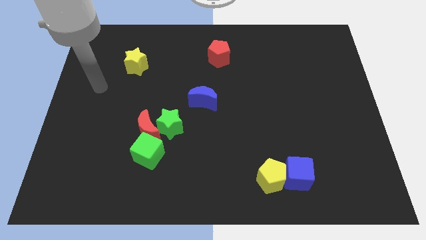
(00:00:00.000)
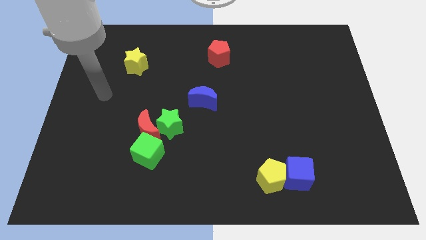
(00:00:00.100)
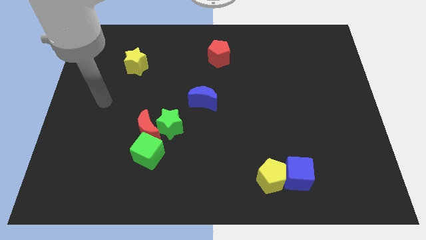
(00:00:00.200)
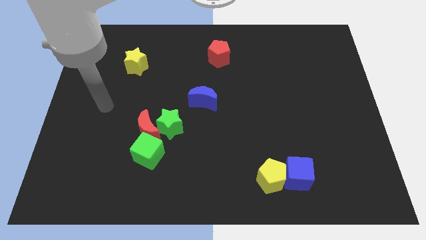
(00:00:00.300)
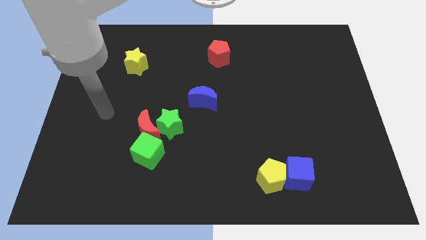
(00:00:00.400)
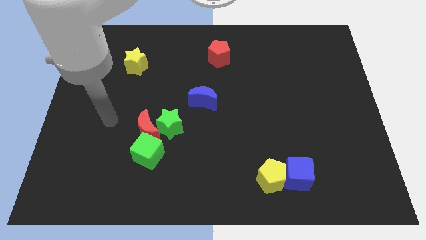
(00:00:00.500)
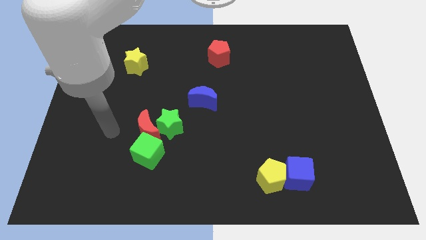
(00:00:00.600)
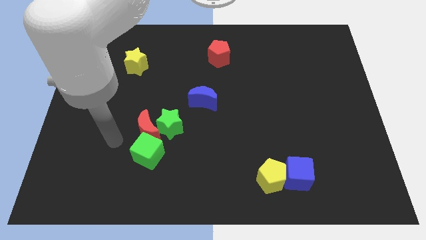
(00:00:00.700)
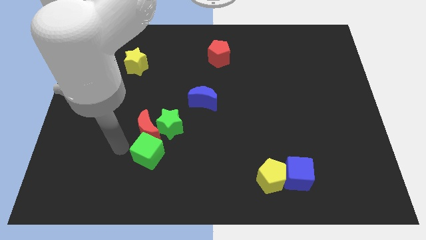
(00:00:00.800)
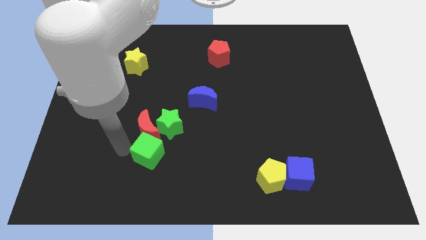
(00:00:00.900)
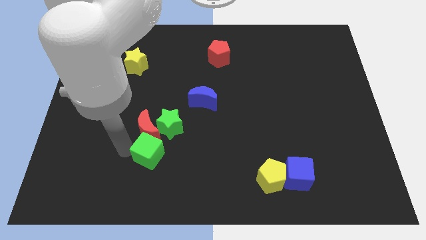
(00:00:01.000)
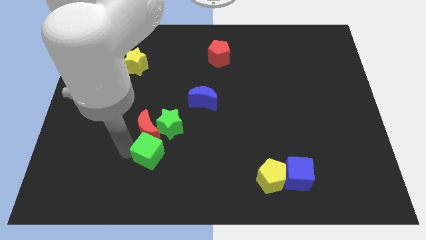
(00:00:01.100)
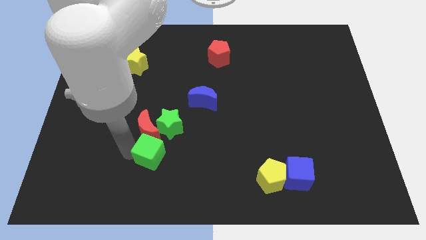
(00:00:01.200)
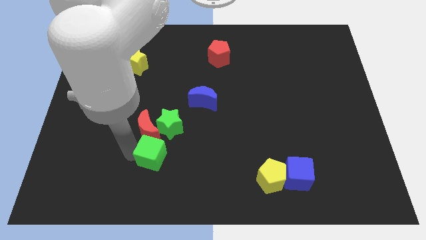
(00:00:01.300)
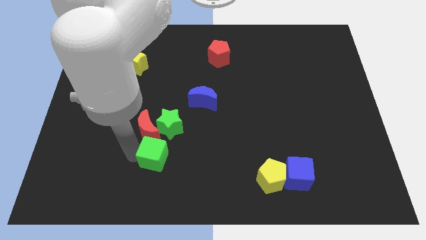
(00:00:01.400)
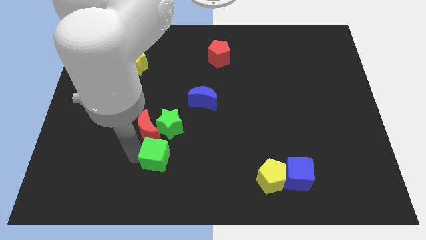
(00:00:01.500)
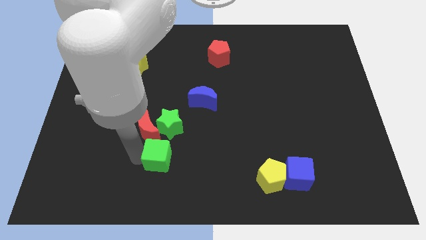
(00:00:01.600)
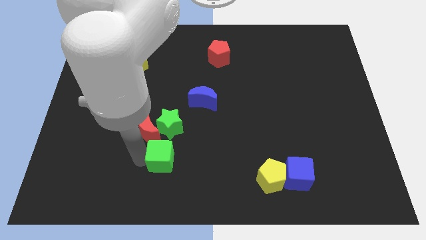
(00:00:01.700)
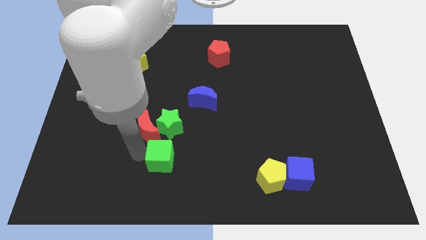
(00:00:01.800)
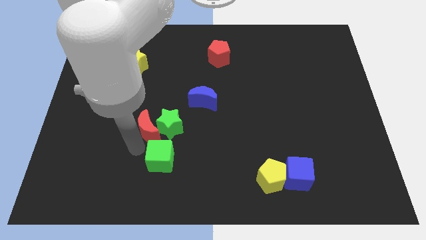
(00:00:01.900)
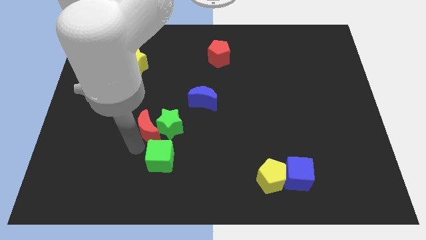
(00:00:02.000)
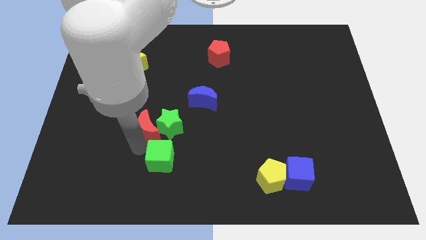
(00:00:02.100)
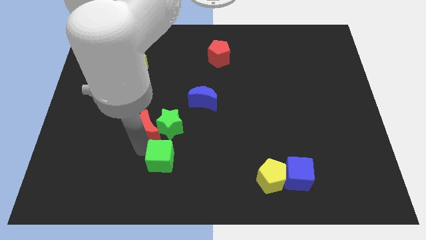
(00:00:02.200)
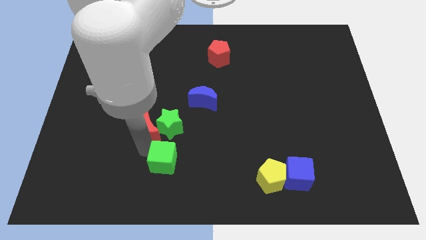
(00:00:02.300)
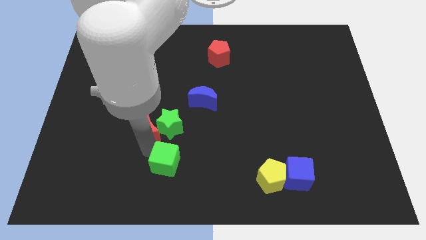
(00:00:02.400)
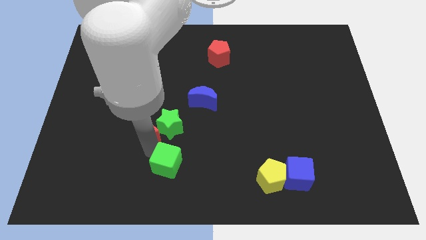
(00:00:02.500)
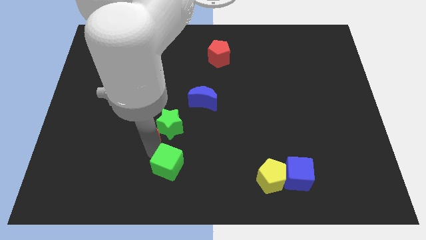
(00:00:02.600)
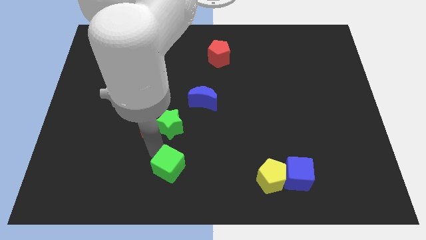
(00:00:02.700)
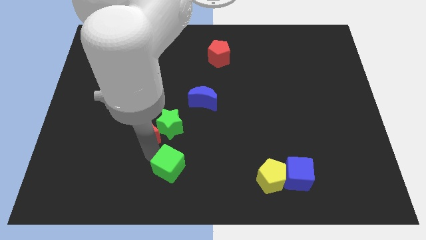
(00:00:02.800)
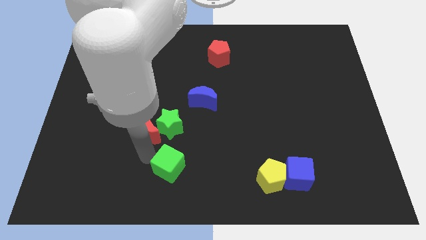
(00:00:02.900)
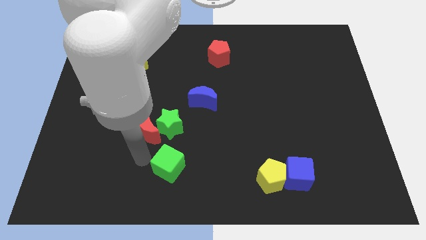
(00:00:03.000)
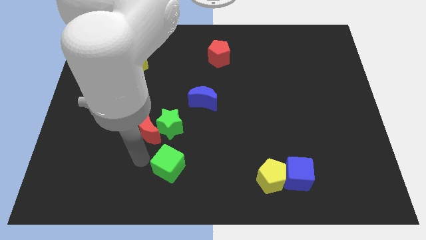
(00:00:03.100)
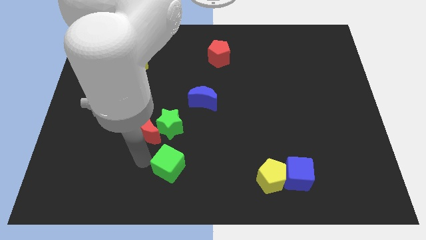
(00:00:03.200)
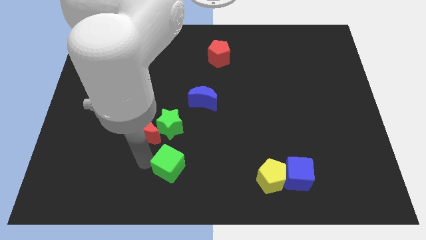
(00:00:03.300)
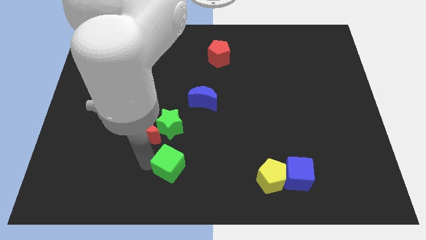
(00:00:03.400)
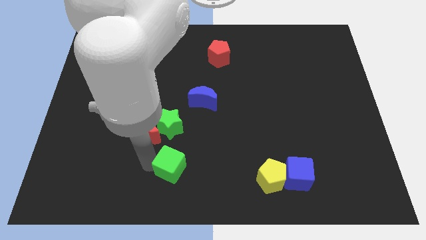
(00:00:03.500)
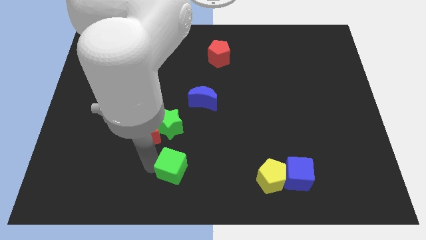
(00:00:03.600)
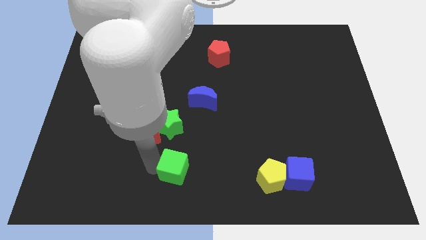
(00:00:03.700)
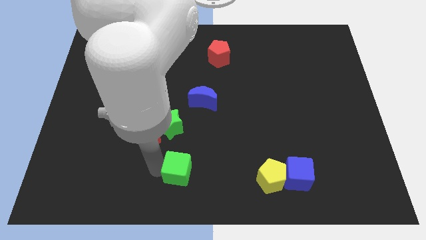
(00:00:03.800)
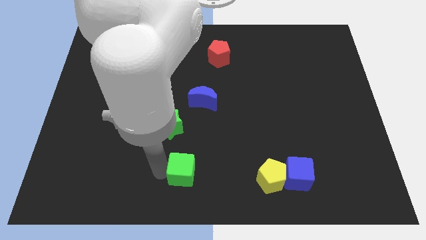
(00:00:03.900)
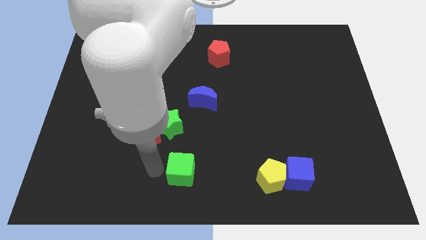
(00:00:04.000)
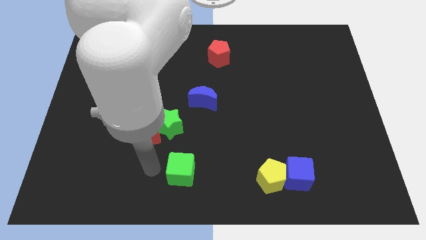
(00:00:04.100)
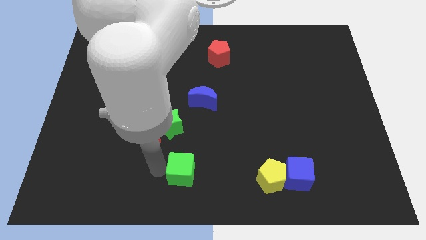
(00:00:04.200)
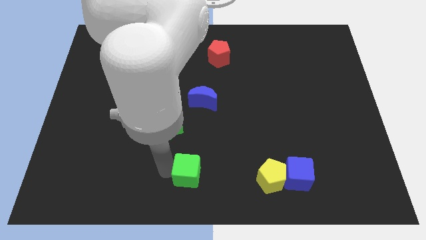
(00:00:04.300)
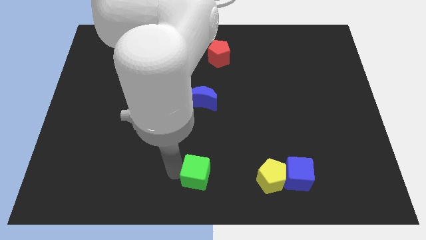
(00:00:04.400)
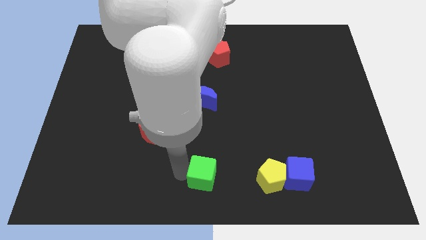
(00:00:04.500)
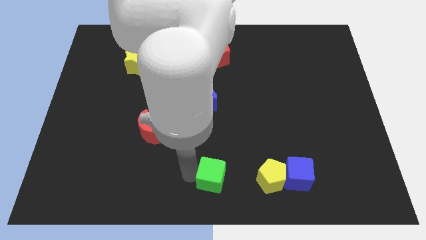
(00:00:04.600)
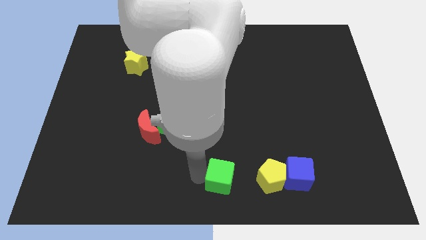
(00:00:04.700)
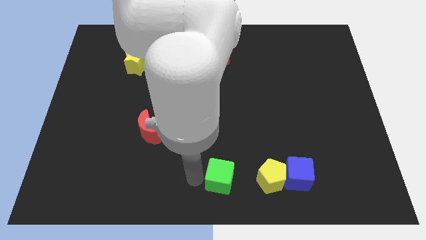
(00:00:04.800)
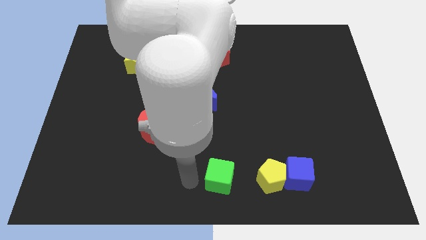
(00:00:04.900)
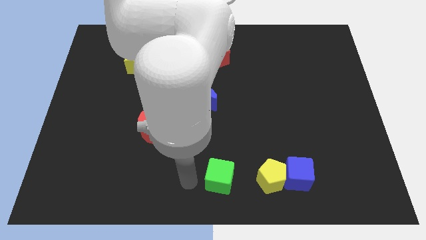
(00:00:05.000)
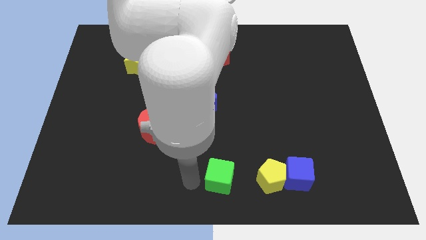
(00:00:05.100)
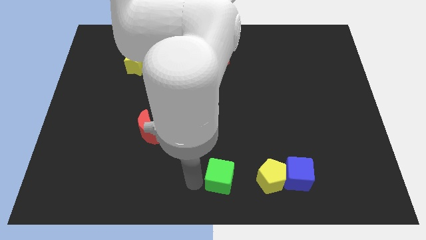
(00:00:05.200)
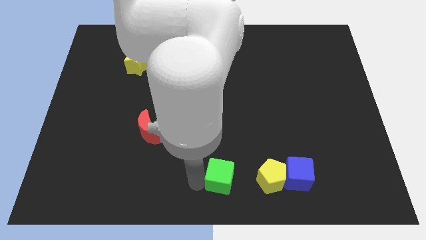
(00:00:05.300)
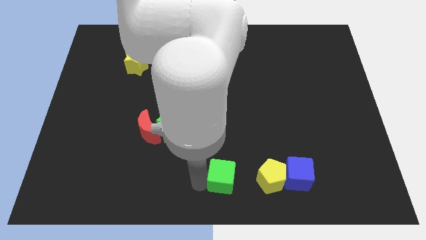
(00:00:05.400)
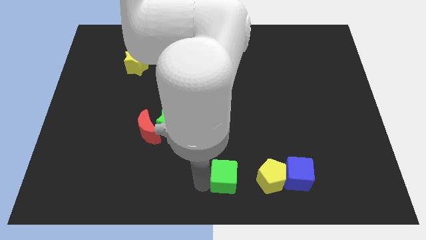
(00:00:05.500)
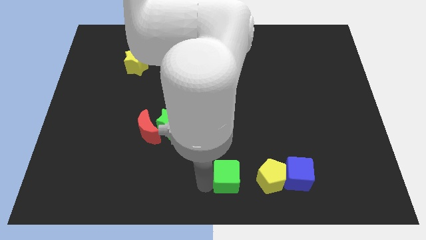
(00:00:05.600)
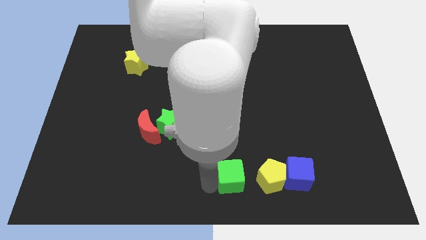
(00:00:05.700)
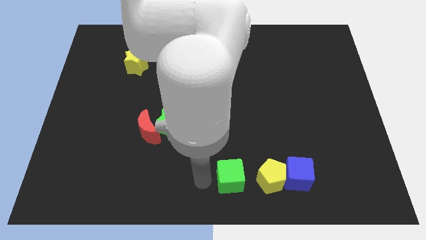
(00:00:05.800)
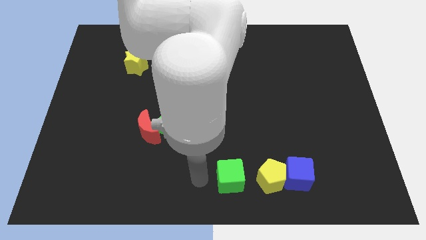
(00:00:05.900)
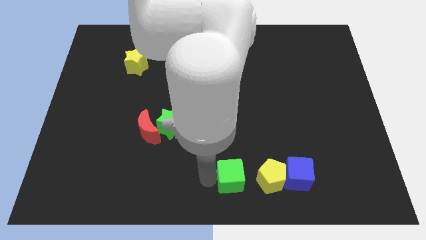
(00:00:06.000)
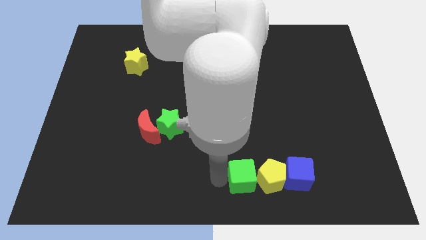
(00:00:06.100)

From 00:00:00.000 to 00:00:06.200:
slide the green cube towards the yellow pentagon
